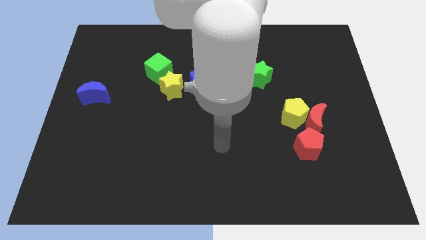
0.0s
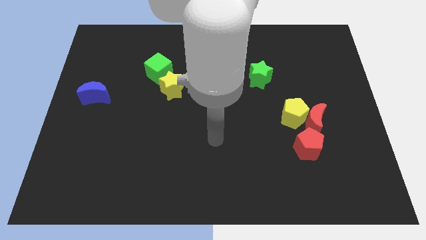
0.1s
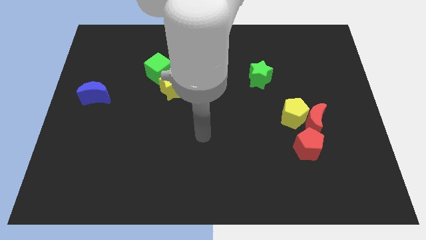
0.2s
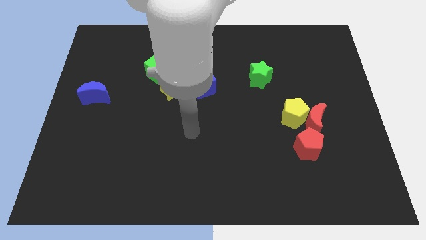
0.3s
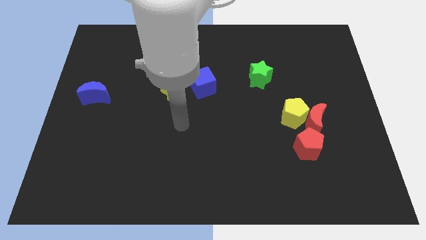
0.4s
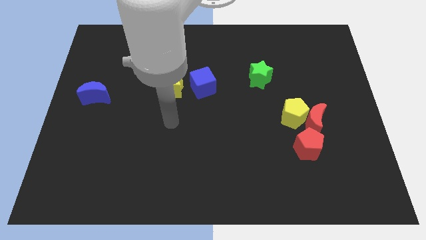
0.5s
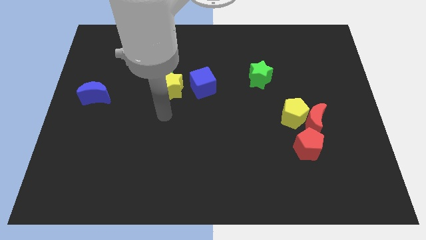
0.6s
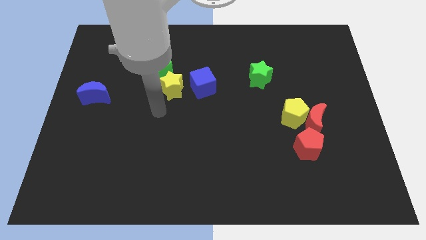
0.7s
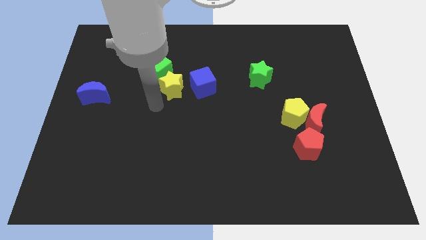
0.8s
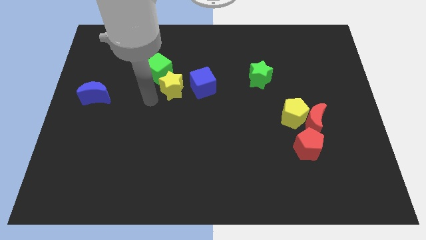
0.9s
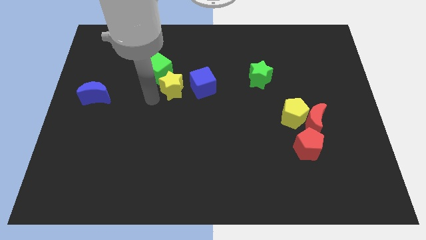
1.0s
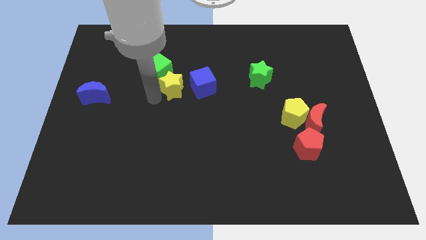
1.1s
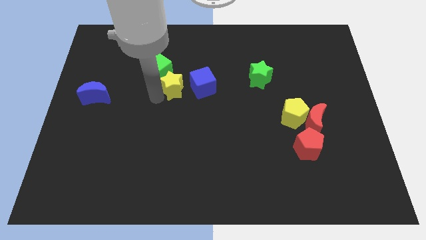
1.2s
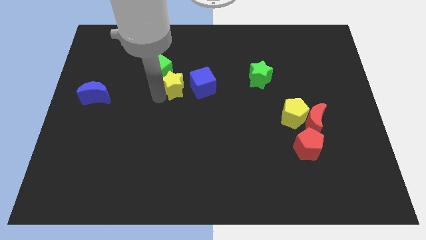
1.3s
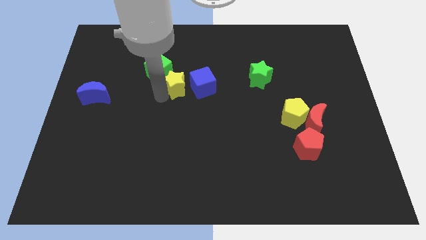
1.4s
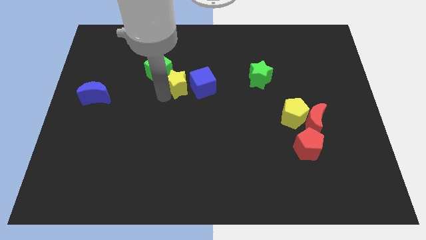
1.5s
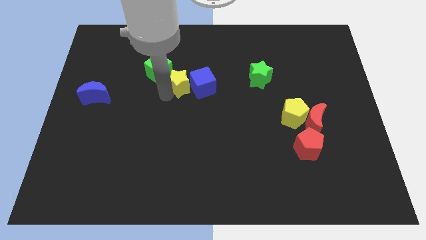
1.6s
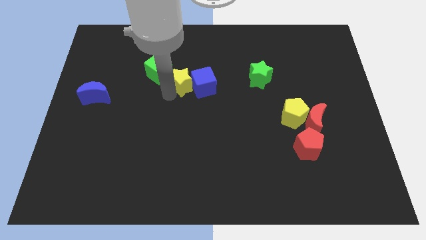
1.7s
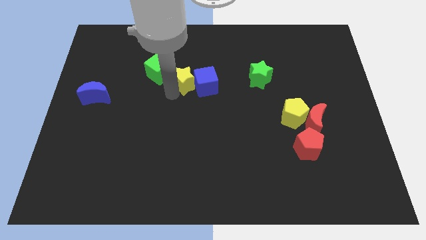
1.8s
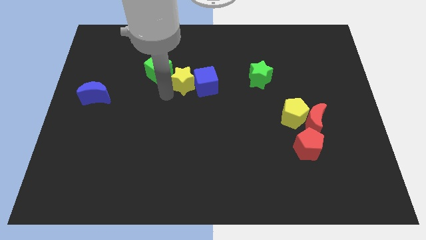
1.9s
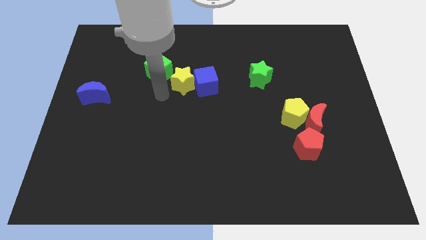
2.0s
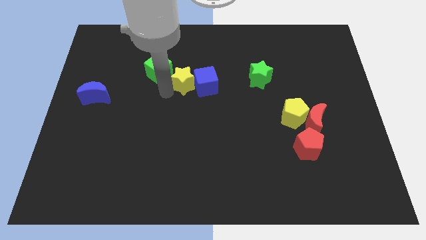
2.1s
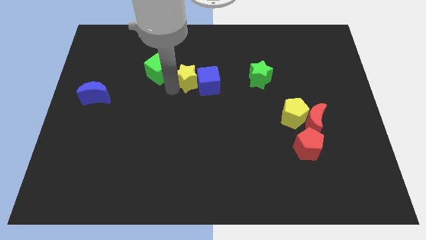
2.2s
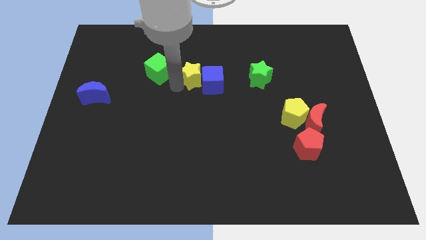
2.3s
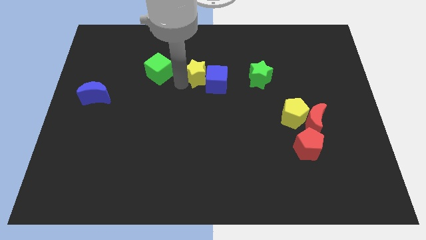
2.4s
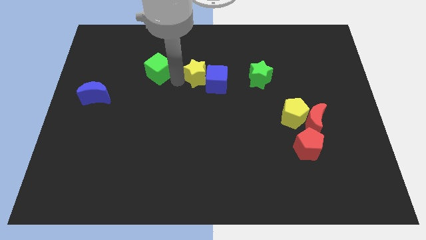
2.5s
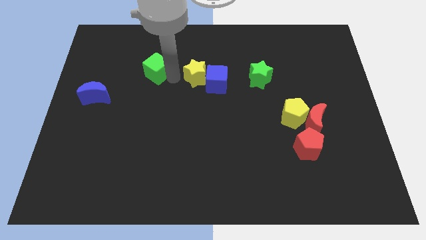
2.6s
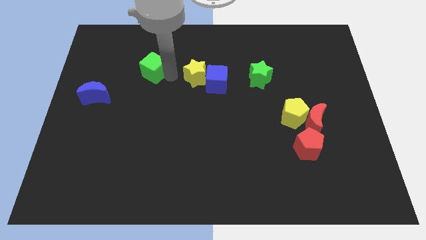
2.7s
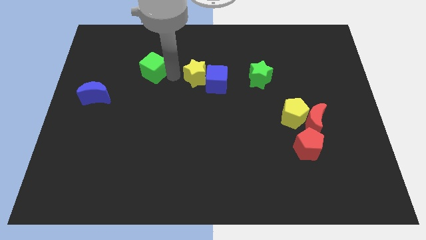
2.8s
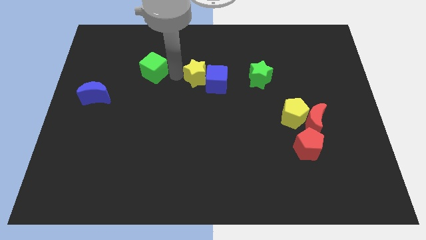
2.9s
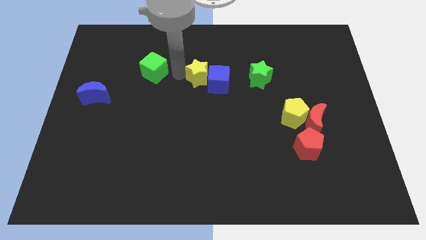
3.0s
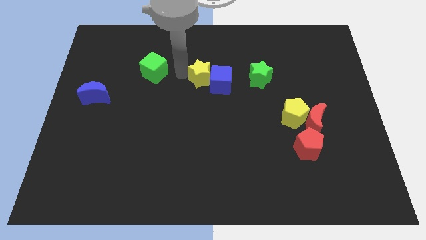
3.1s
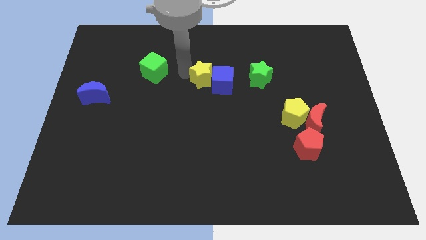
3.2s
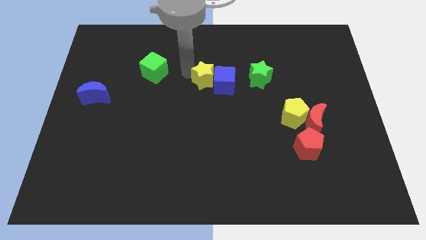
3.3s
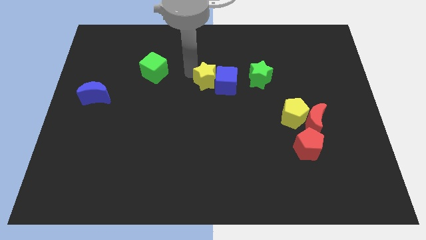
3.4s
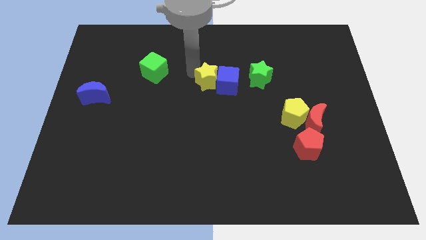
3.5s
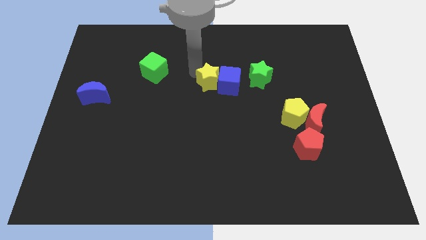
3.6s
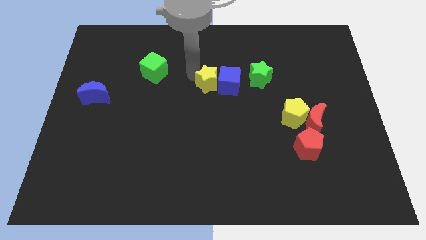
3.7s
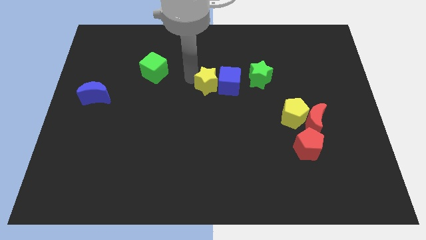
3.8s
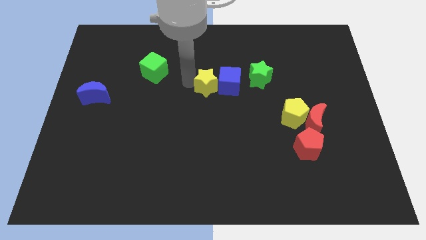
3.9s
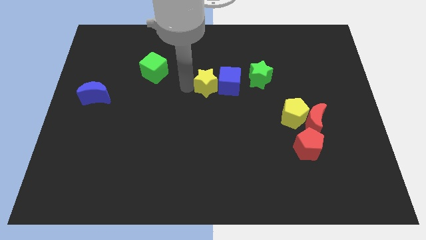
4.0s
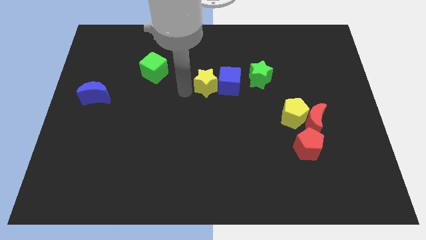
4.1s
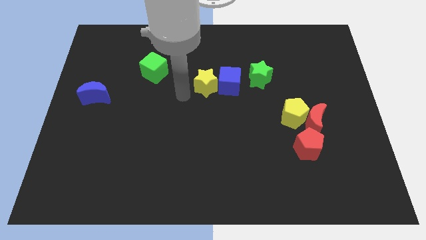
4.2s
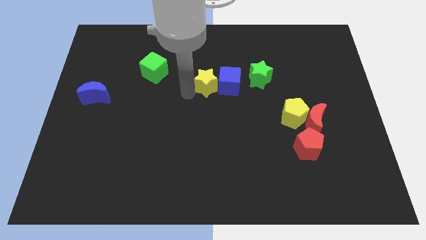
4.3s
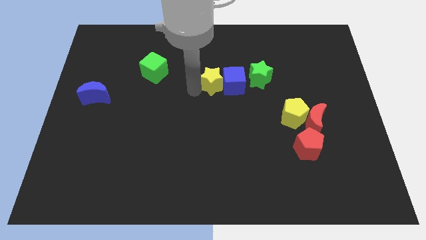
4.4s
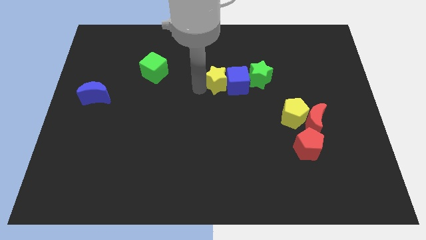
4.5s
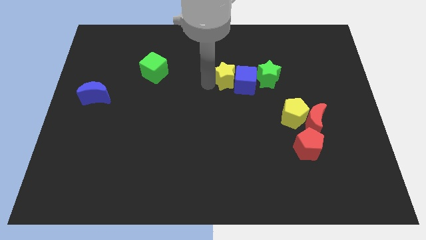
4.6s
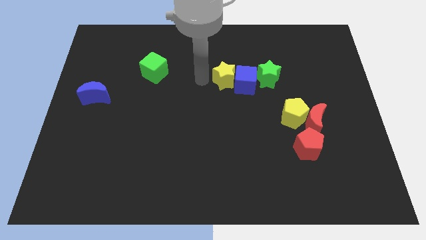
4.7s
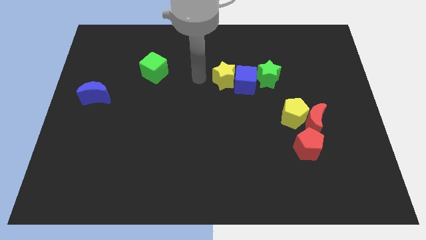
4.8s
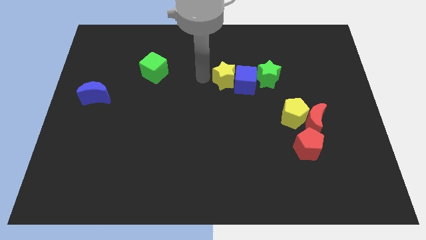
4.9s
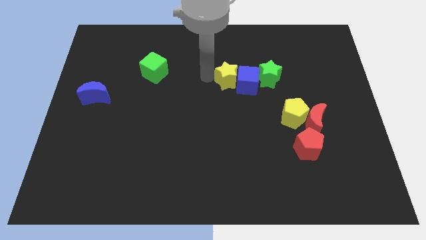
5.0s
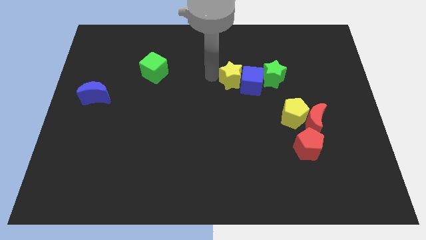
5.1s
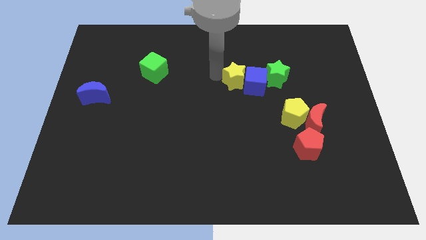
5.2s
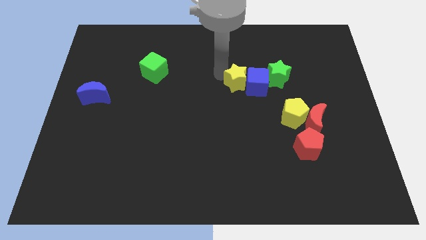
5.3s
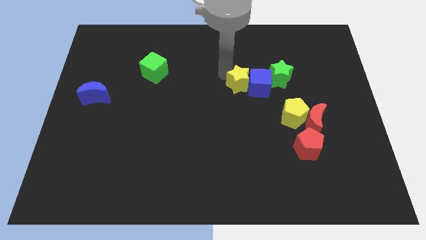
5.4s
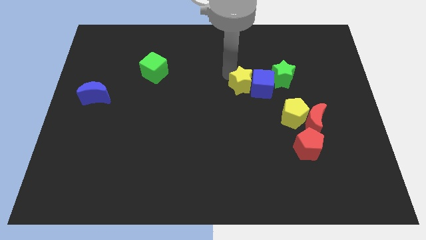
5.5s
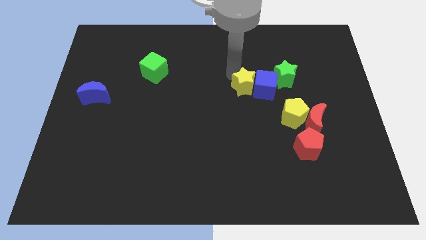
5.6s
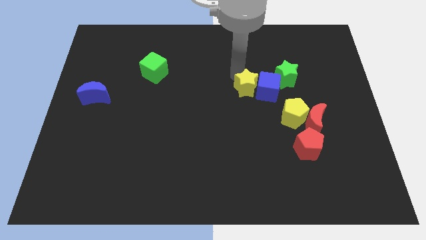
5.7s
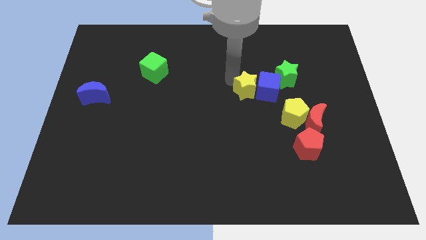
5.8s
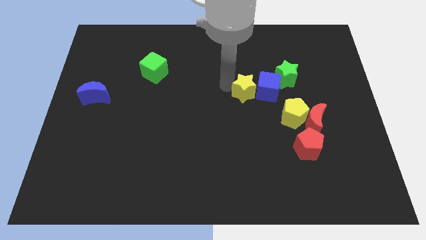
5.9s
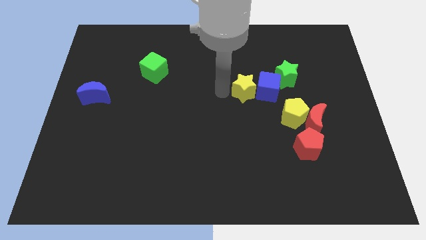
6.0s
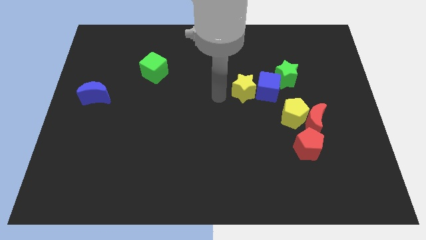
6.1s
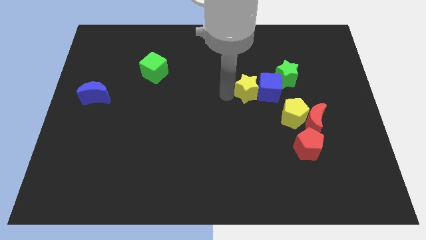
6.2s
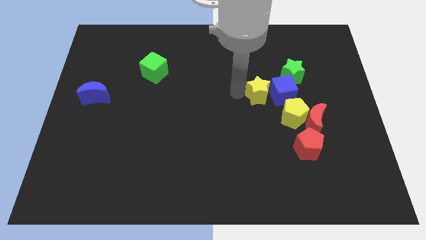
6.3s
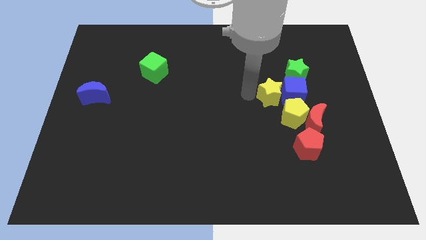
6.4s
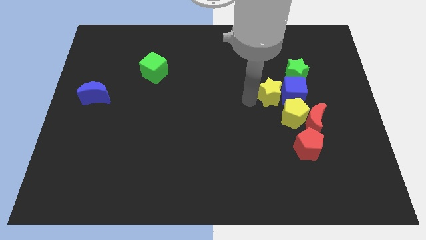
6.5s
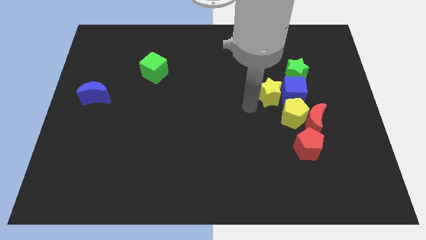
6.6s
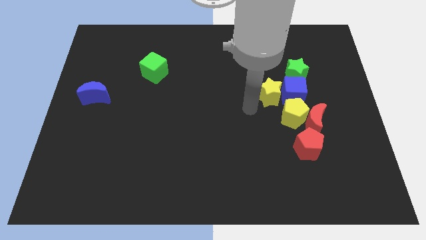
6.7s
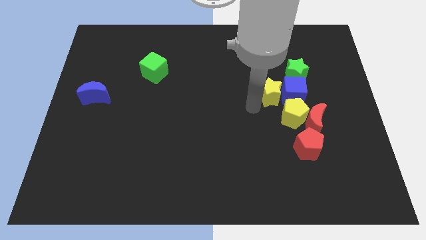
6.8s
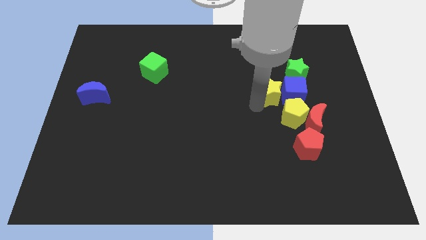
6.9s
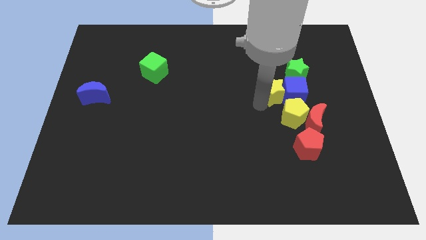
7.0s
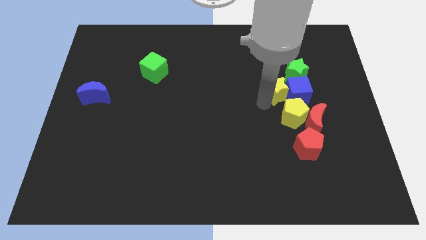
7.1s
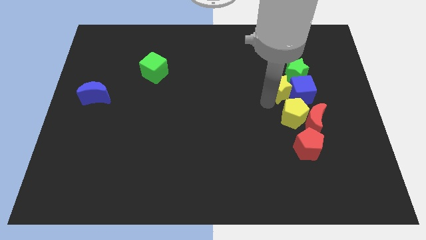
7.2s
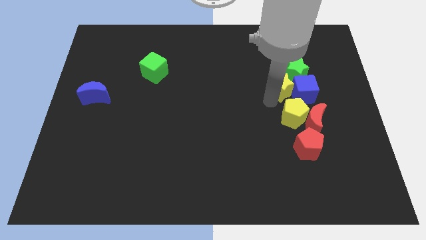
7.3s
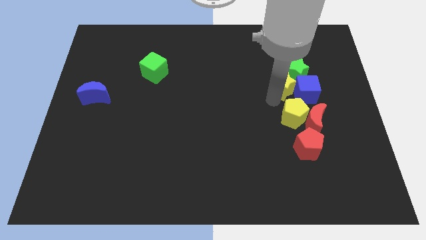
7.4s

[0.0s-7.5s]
slide the yellow star close to the green star
